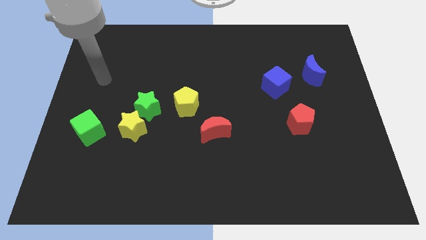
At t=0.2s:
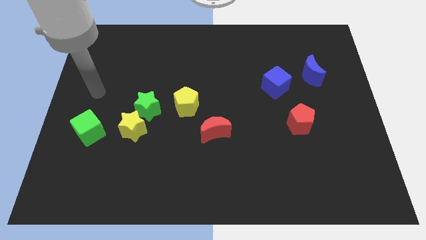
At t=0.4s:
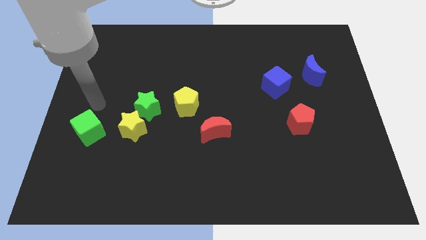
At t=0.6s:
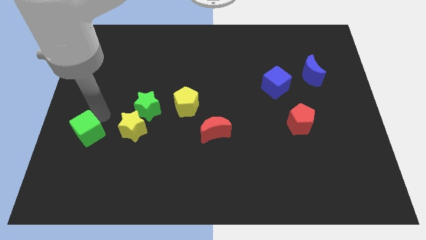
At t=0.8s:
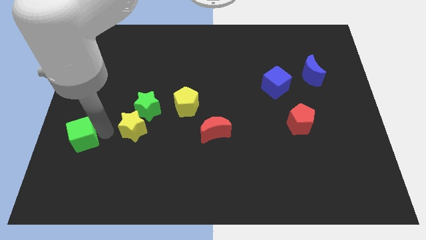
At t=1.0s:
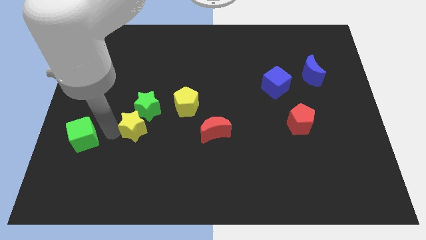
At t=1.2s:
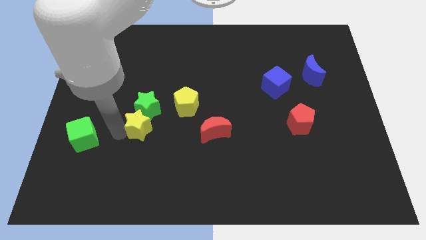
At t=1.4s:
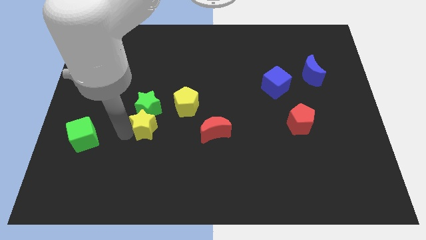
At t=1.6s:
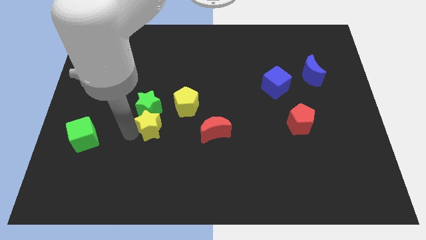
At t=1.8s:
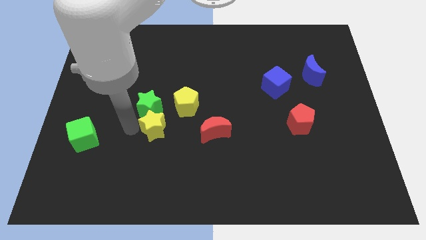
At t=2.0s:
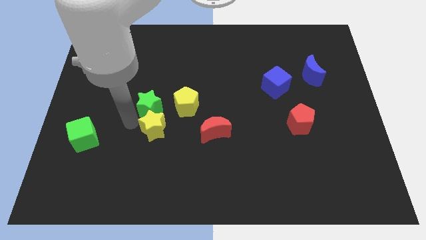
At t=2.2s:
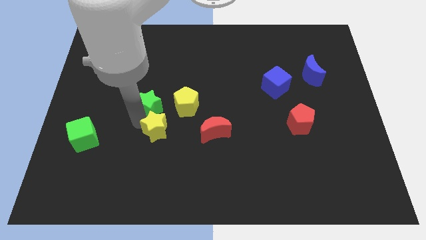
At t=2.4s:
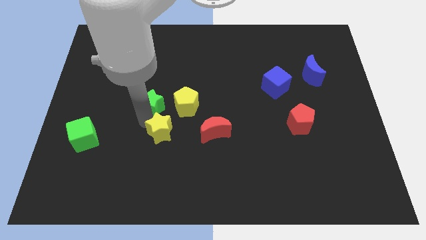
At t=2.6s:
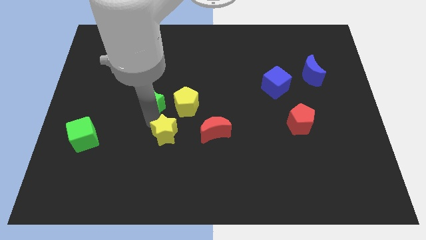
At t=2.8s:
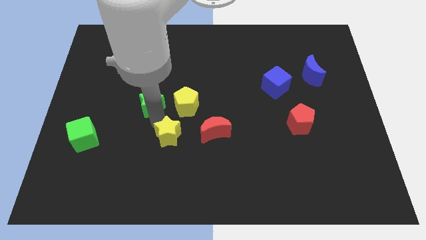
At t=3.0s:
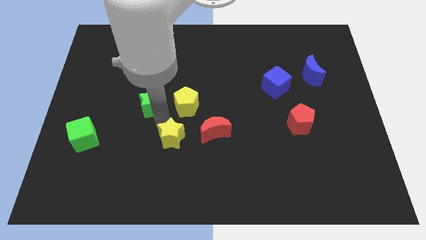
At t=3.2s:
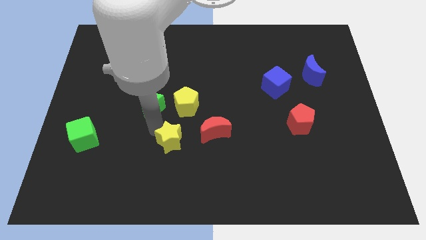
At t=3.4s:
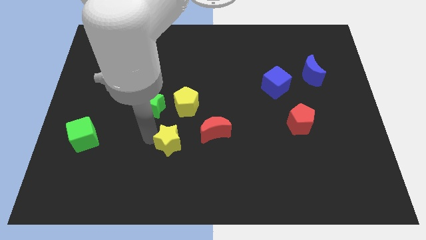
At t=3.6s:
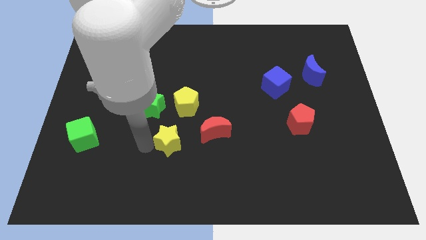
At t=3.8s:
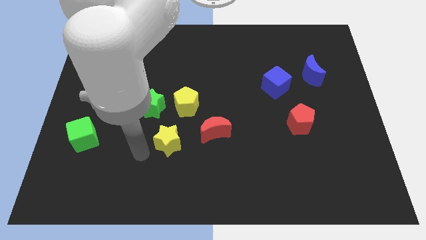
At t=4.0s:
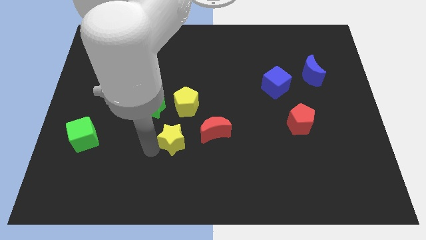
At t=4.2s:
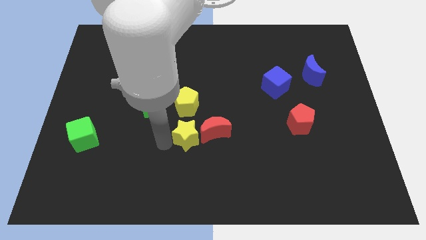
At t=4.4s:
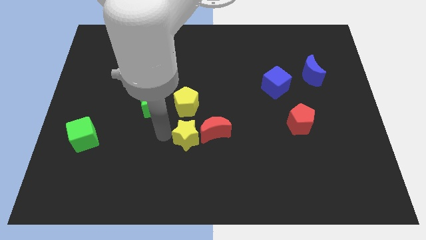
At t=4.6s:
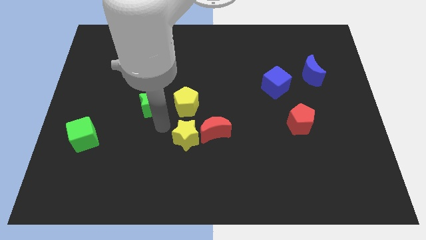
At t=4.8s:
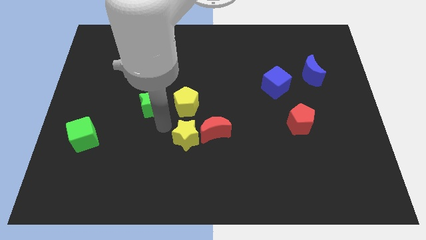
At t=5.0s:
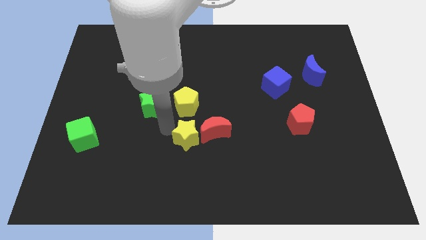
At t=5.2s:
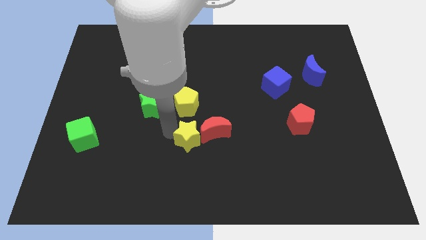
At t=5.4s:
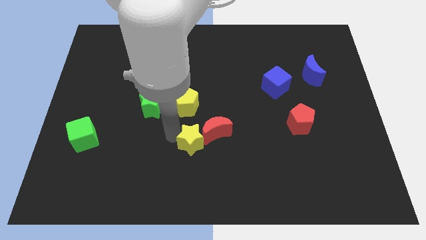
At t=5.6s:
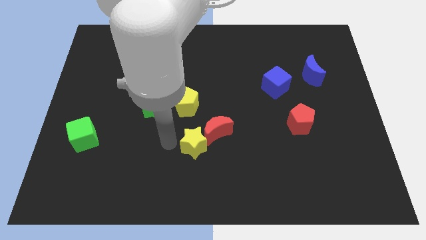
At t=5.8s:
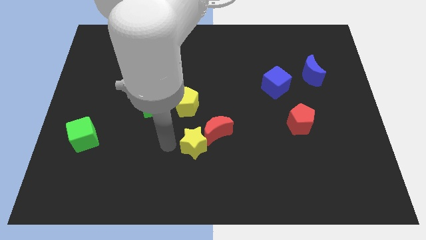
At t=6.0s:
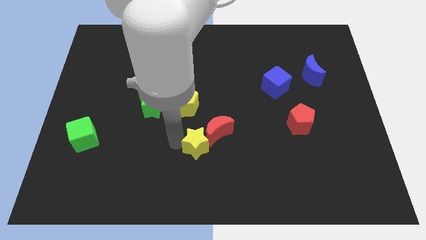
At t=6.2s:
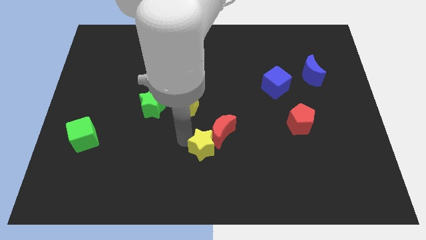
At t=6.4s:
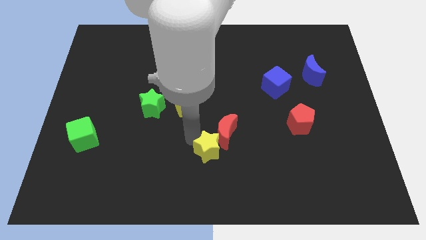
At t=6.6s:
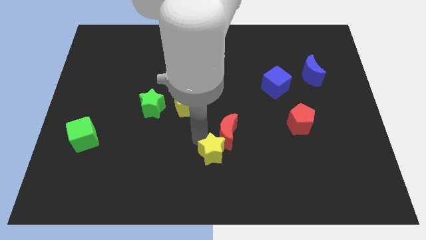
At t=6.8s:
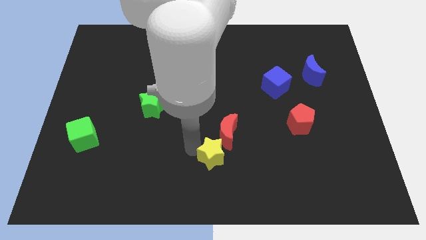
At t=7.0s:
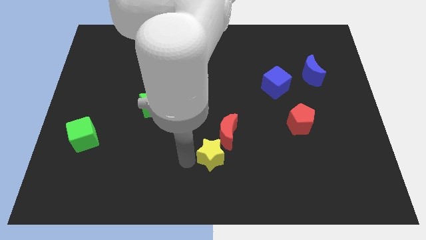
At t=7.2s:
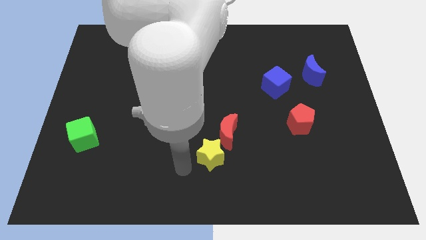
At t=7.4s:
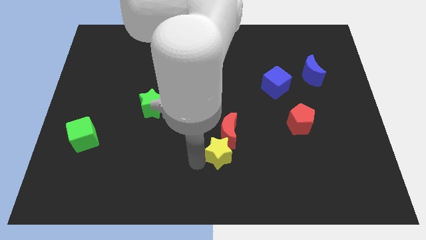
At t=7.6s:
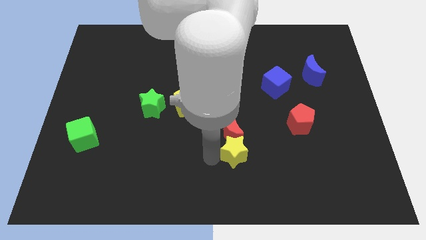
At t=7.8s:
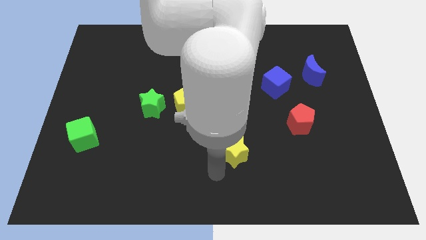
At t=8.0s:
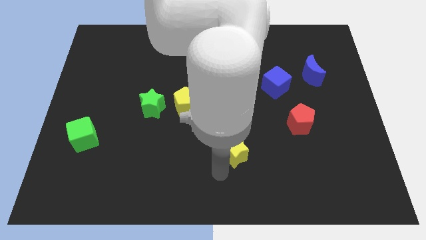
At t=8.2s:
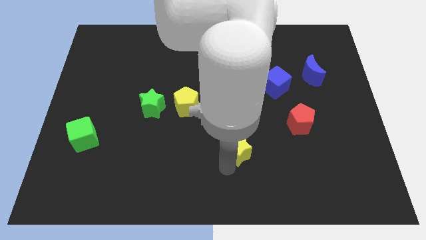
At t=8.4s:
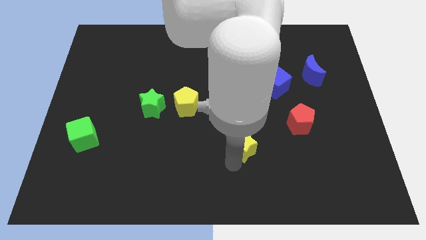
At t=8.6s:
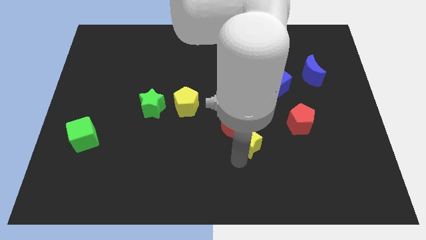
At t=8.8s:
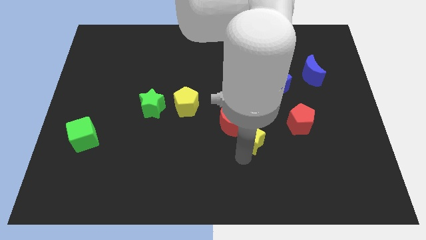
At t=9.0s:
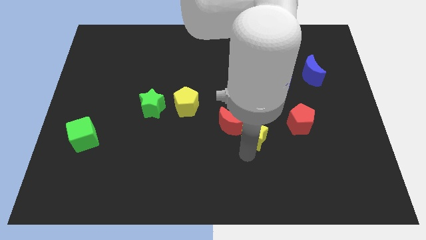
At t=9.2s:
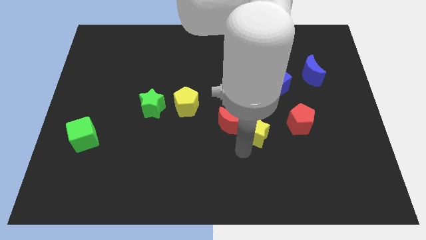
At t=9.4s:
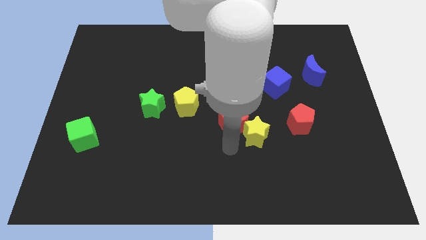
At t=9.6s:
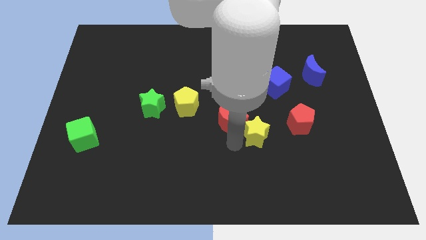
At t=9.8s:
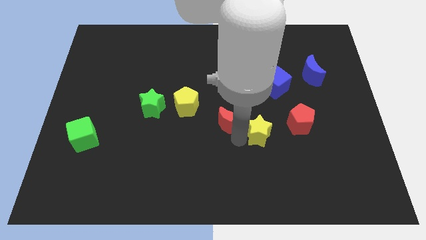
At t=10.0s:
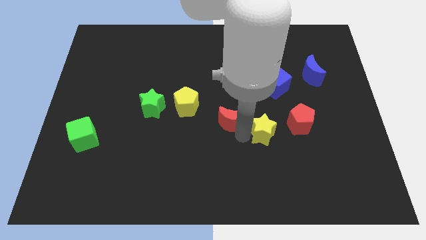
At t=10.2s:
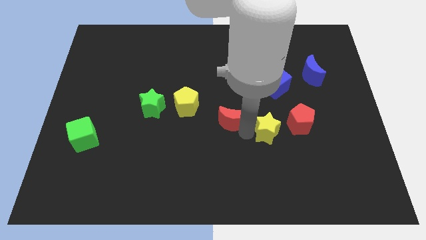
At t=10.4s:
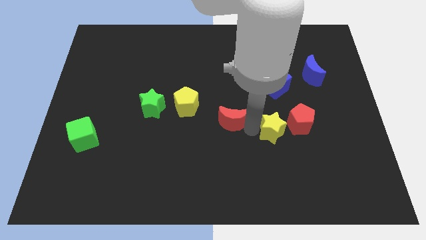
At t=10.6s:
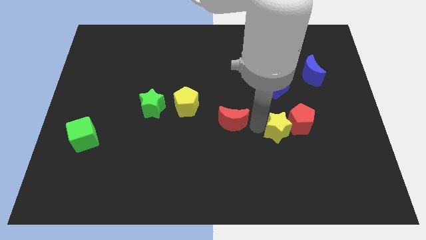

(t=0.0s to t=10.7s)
slide the yellow star to the red pentagon

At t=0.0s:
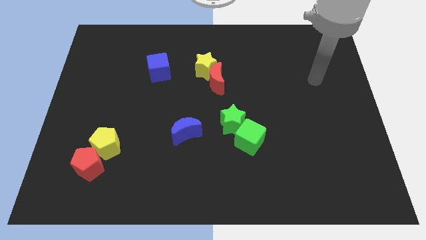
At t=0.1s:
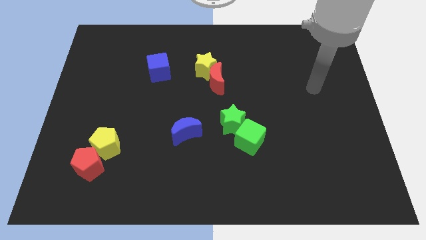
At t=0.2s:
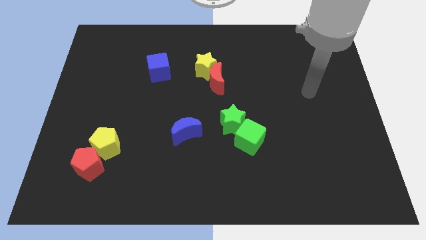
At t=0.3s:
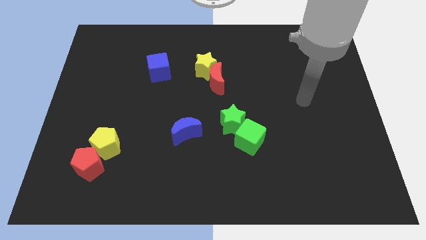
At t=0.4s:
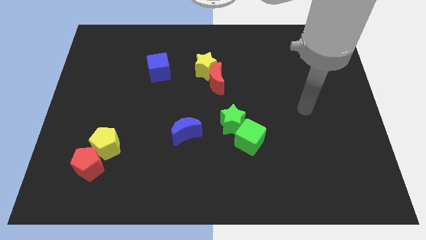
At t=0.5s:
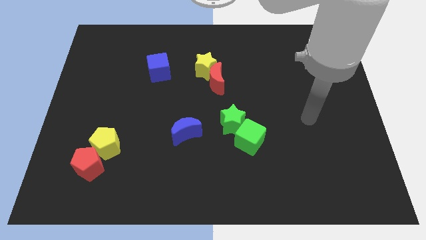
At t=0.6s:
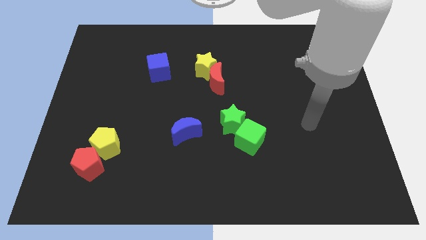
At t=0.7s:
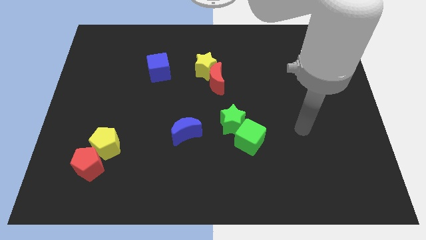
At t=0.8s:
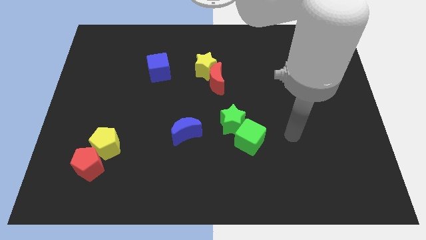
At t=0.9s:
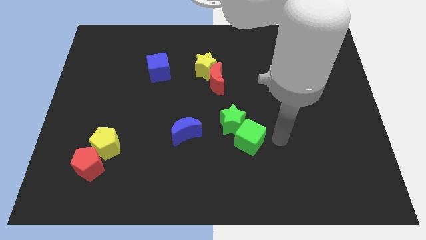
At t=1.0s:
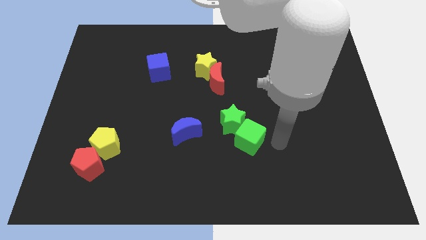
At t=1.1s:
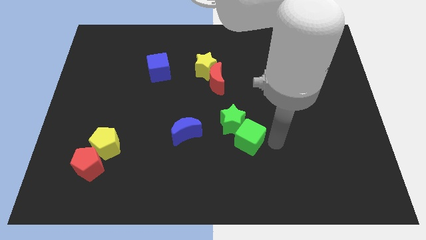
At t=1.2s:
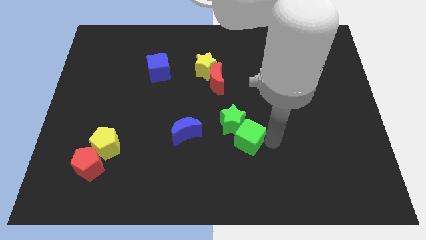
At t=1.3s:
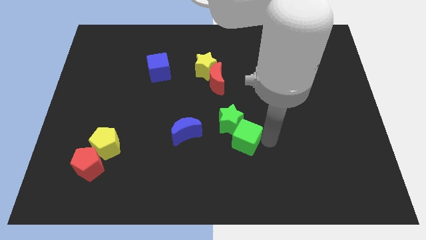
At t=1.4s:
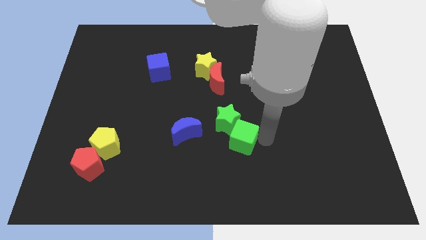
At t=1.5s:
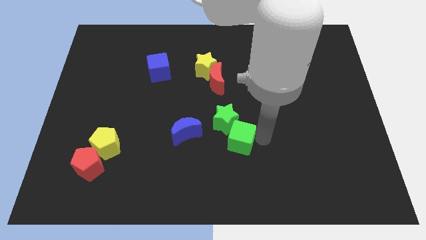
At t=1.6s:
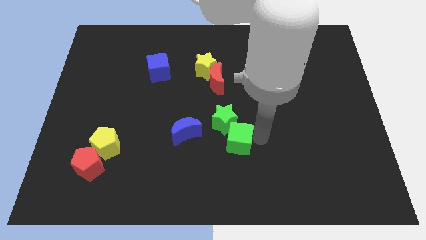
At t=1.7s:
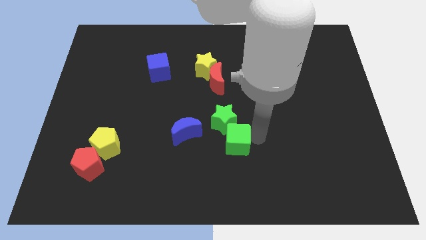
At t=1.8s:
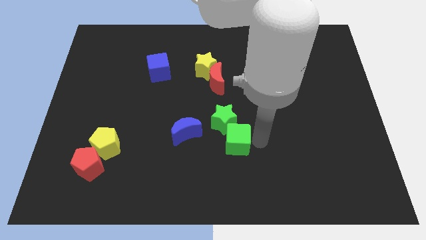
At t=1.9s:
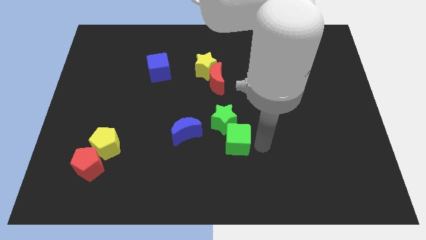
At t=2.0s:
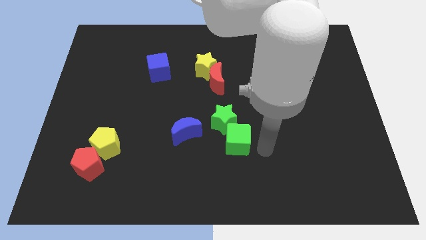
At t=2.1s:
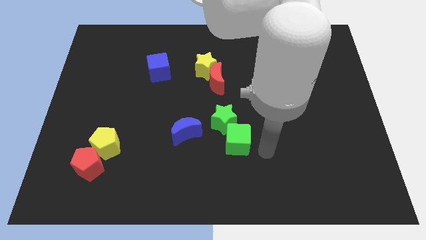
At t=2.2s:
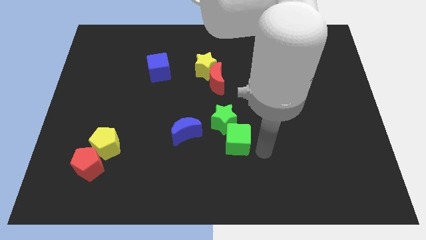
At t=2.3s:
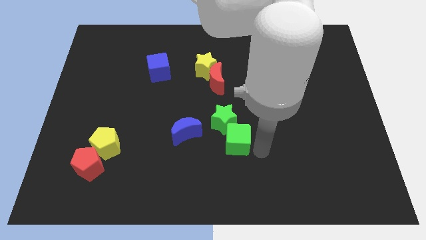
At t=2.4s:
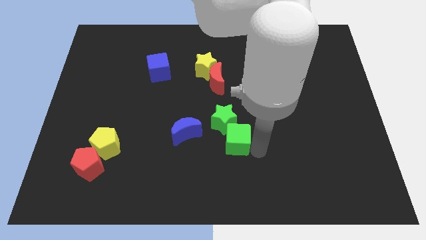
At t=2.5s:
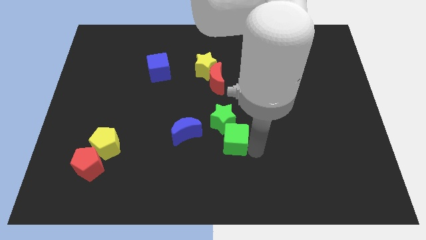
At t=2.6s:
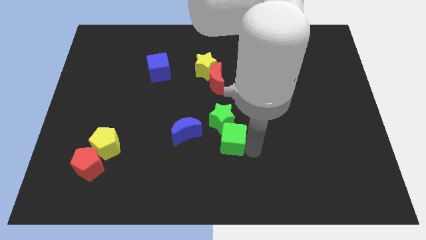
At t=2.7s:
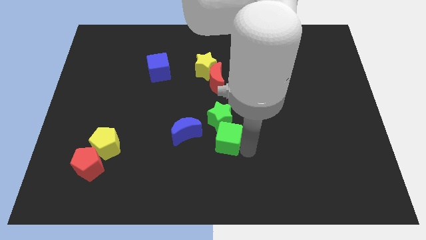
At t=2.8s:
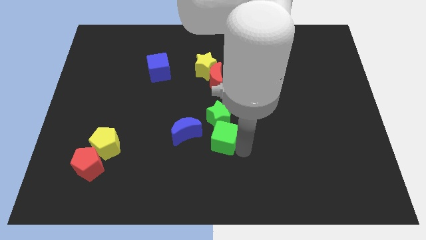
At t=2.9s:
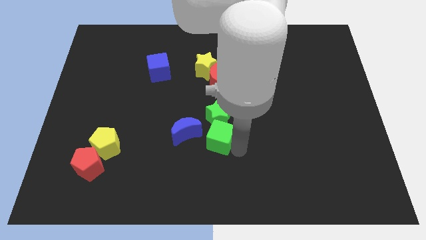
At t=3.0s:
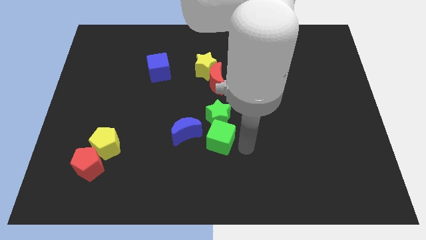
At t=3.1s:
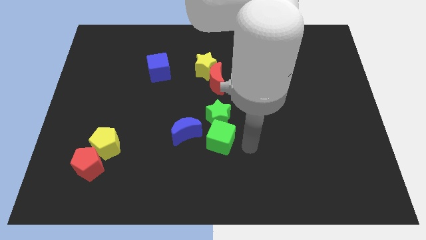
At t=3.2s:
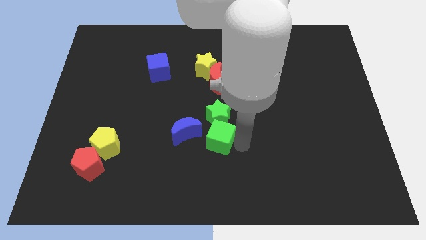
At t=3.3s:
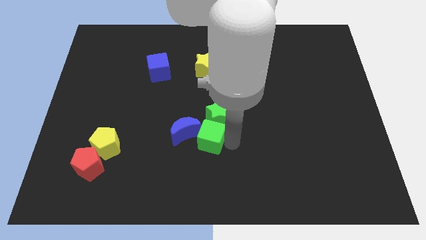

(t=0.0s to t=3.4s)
move the green cube towards the blue moon
